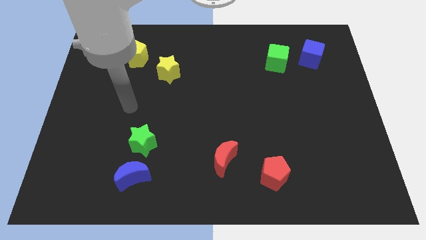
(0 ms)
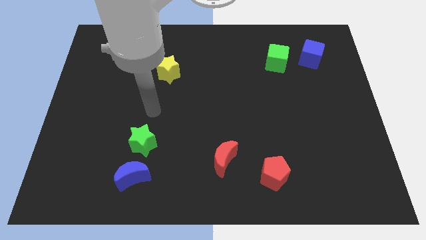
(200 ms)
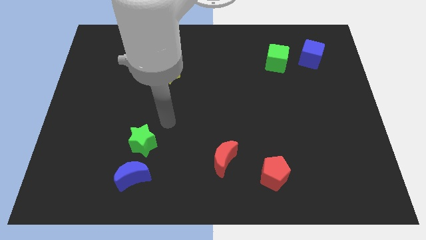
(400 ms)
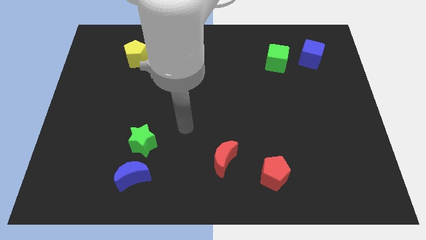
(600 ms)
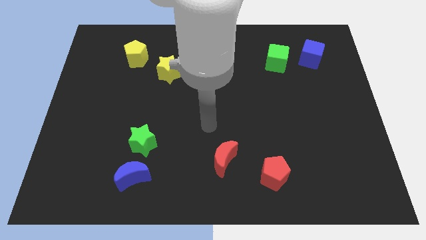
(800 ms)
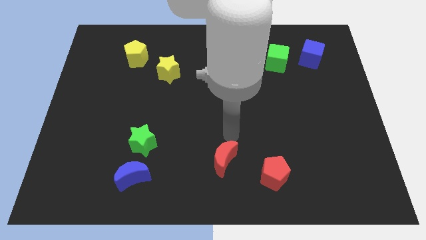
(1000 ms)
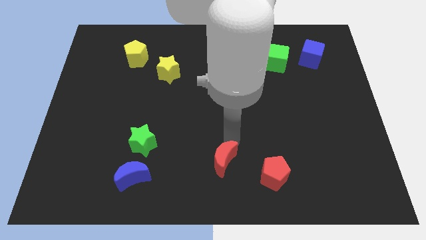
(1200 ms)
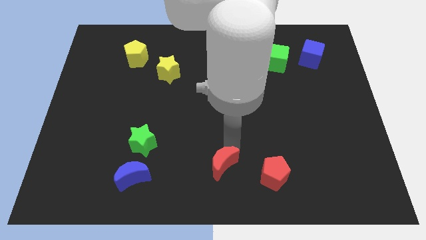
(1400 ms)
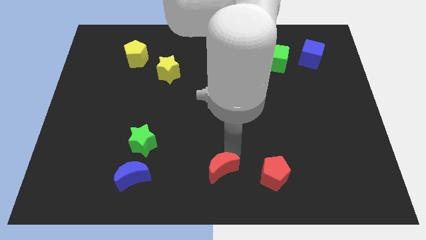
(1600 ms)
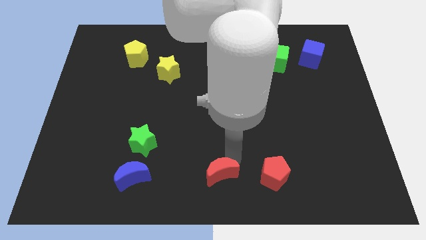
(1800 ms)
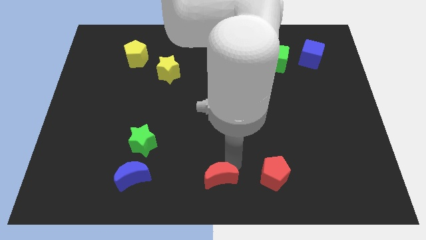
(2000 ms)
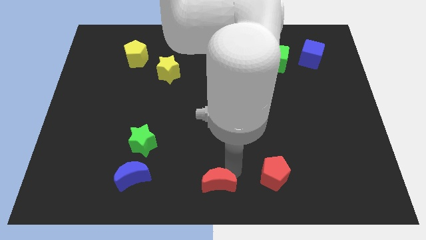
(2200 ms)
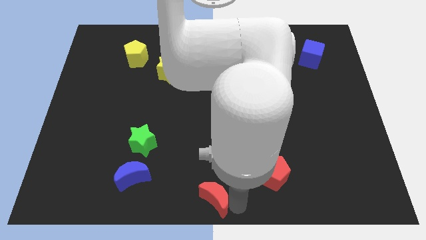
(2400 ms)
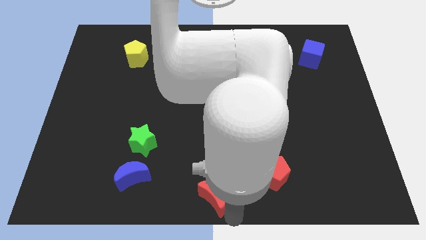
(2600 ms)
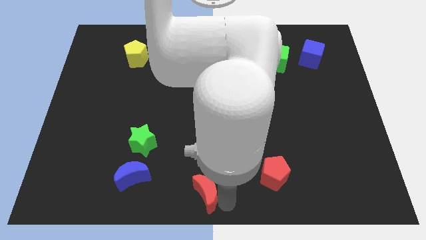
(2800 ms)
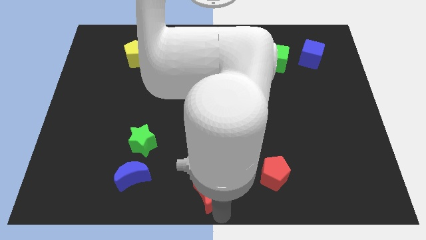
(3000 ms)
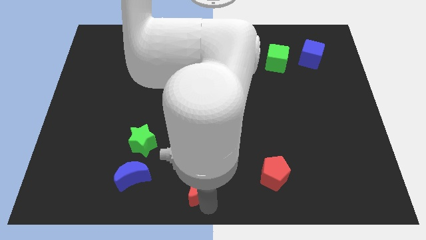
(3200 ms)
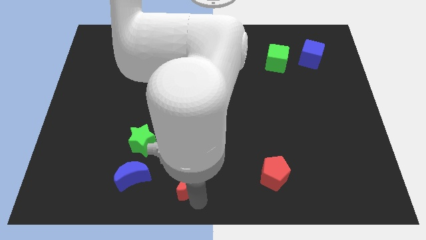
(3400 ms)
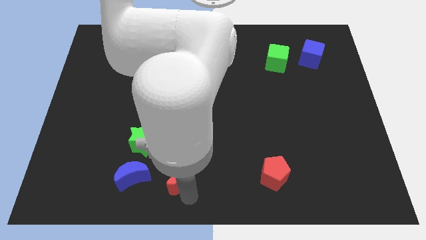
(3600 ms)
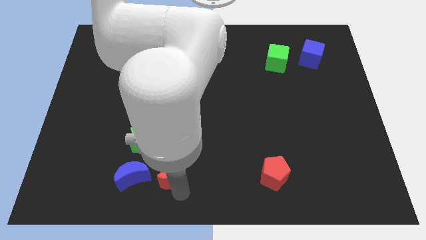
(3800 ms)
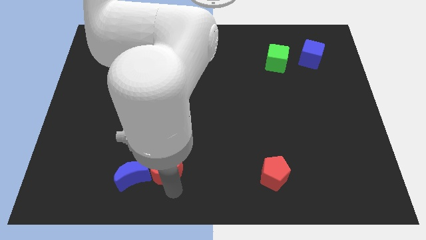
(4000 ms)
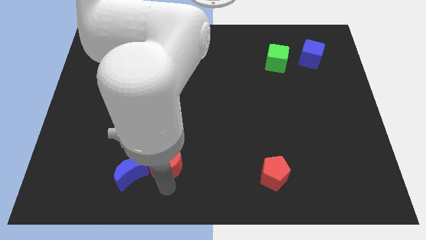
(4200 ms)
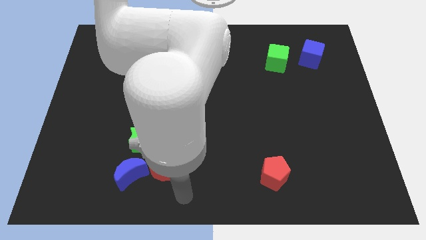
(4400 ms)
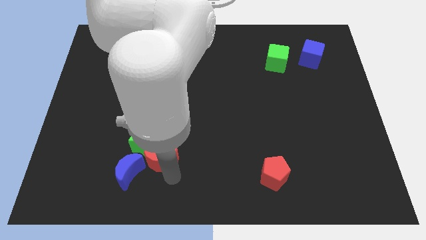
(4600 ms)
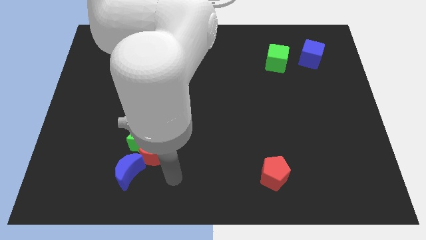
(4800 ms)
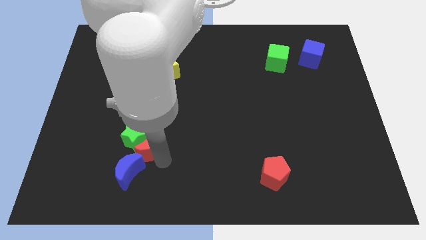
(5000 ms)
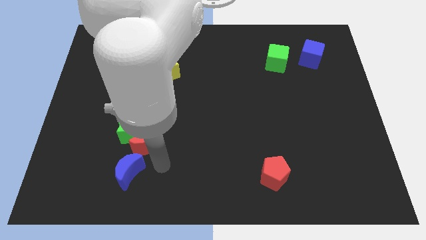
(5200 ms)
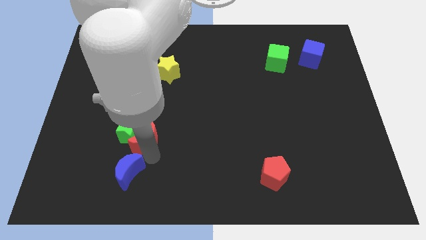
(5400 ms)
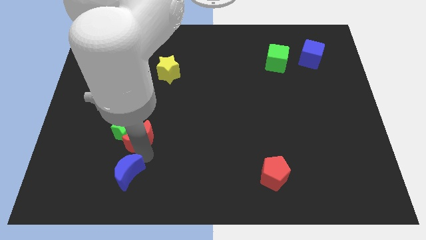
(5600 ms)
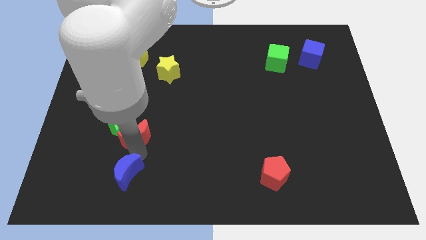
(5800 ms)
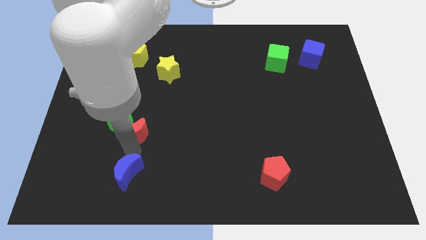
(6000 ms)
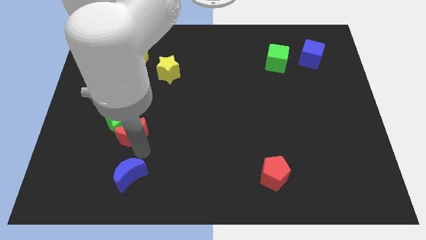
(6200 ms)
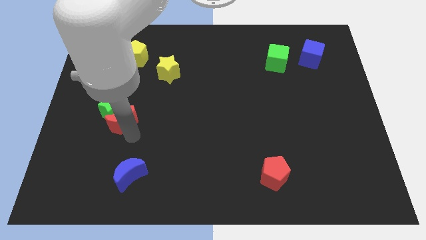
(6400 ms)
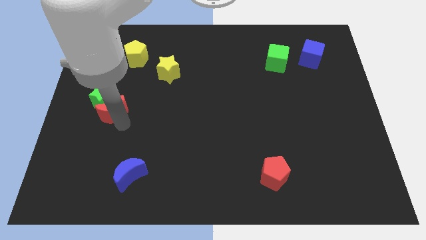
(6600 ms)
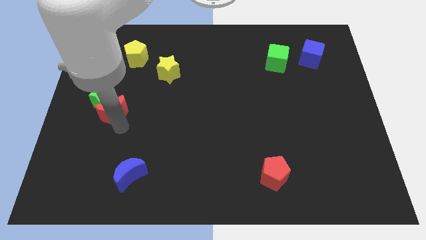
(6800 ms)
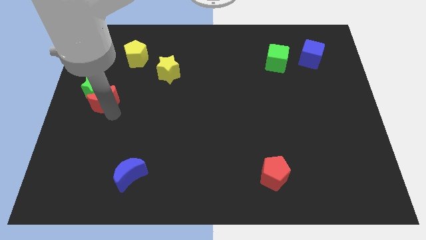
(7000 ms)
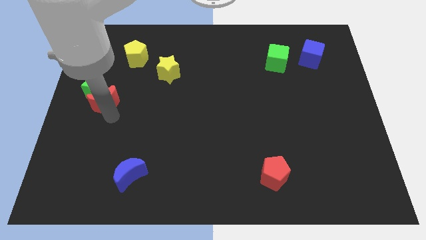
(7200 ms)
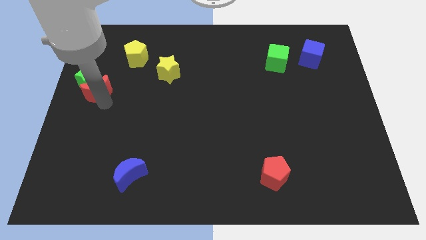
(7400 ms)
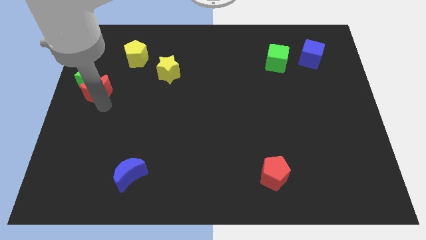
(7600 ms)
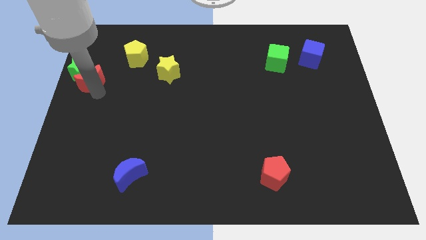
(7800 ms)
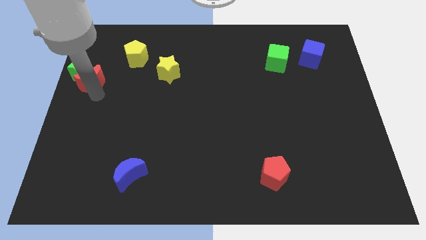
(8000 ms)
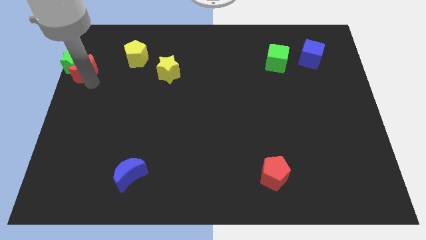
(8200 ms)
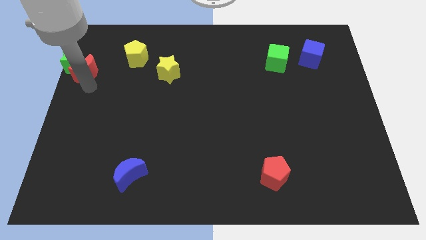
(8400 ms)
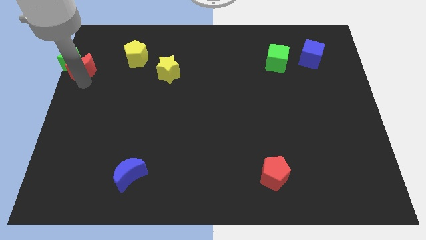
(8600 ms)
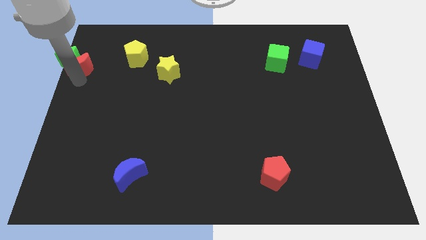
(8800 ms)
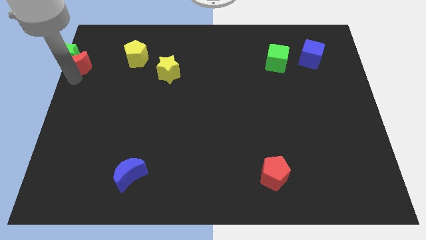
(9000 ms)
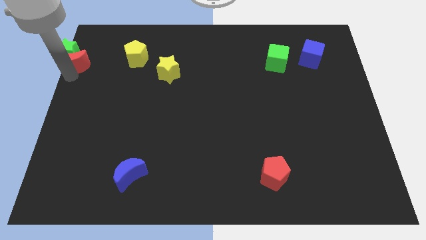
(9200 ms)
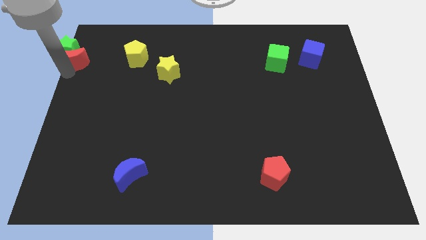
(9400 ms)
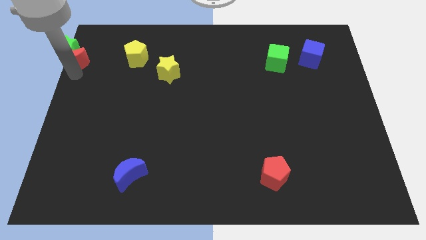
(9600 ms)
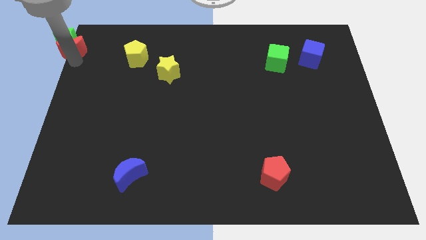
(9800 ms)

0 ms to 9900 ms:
slide the red moon to the top left of the board

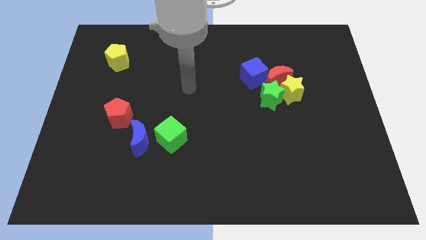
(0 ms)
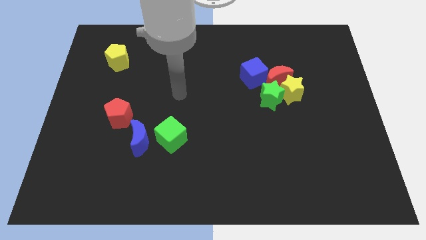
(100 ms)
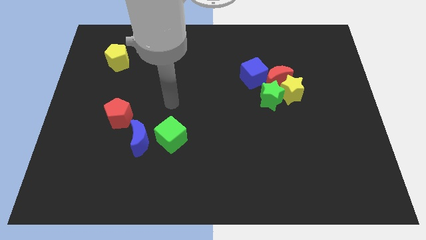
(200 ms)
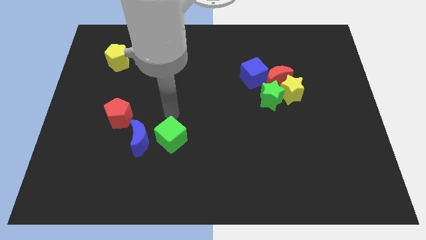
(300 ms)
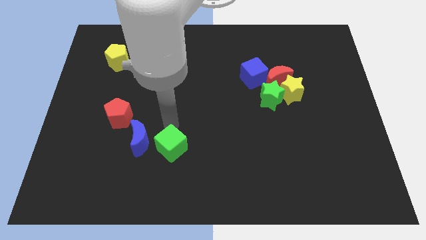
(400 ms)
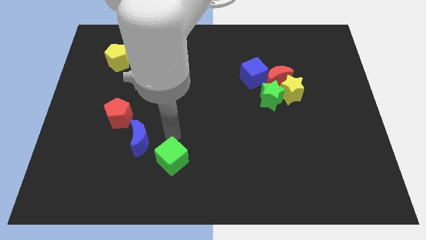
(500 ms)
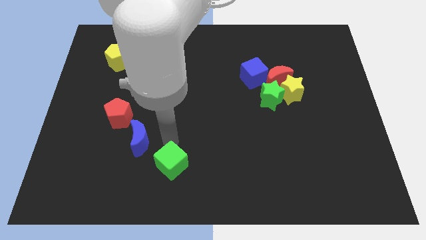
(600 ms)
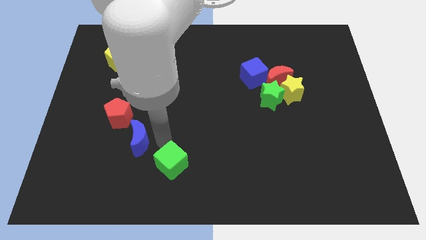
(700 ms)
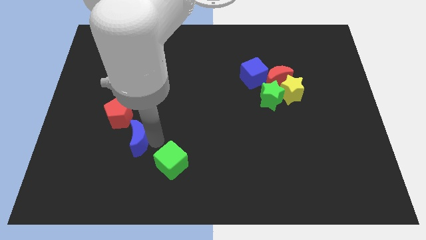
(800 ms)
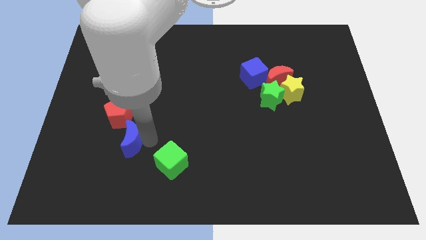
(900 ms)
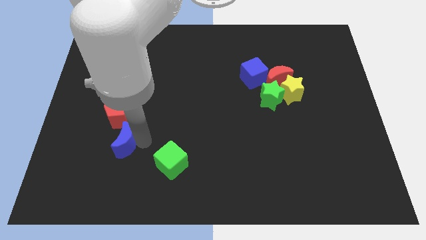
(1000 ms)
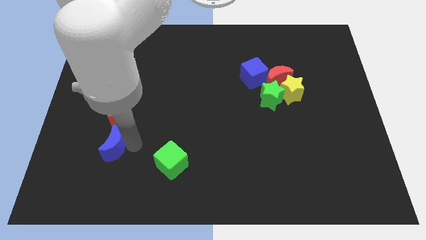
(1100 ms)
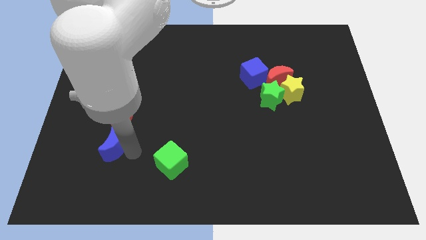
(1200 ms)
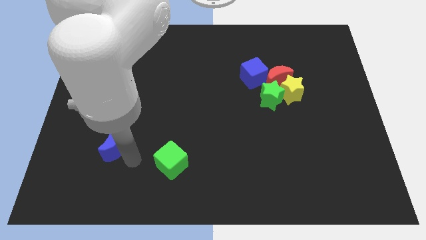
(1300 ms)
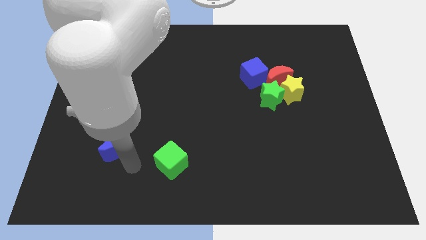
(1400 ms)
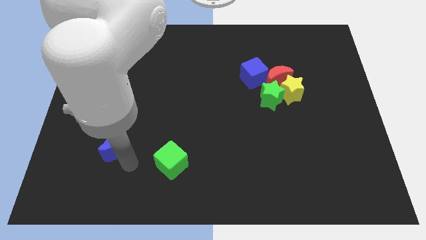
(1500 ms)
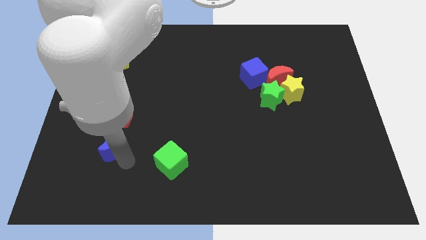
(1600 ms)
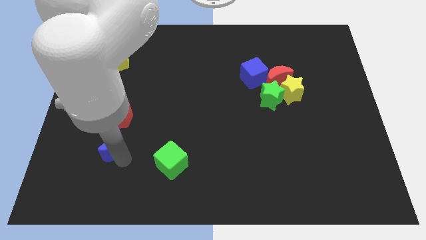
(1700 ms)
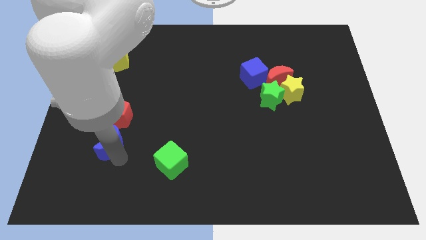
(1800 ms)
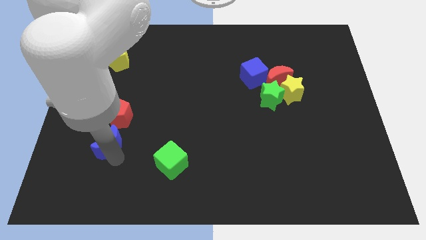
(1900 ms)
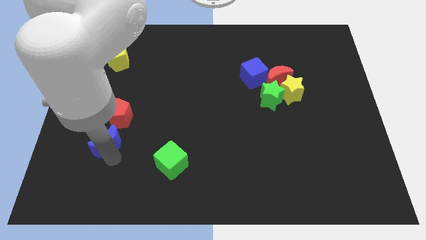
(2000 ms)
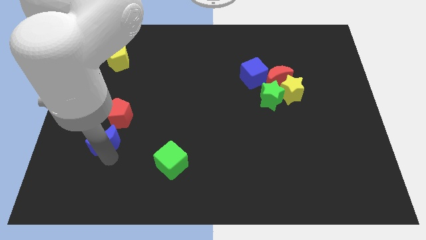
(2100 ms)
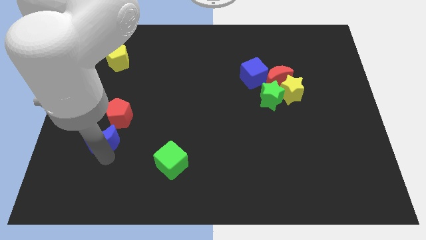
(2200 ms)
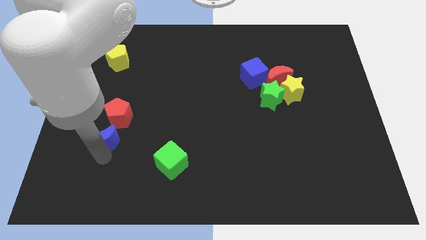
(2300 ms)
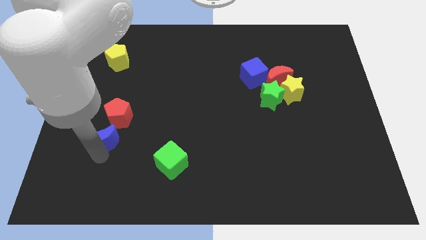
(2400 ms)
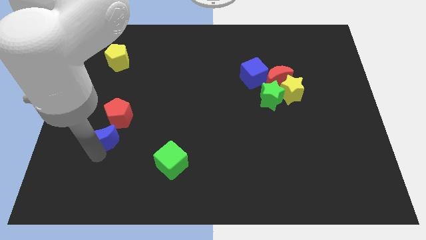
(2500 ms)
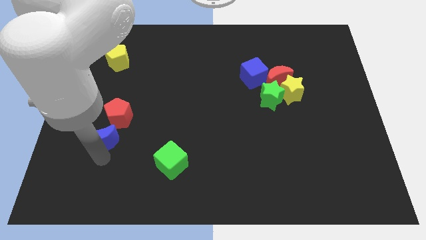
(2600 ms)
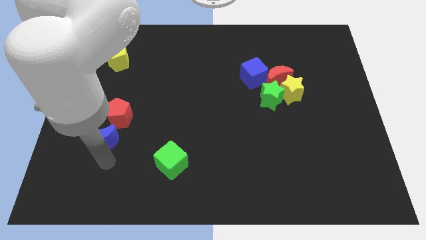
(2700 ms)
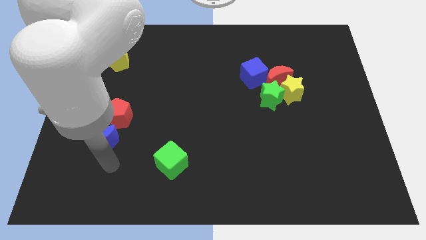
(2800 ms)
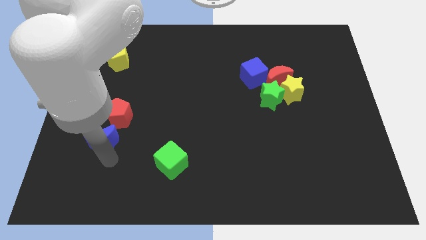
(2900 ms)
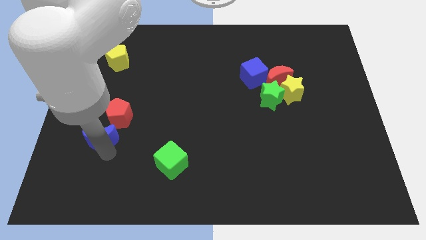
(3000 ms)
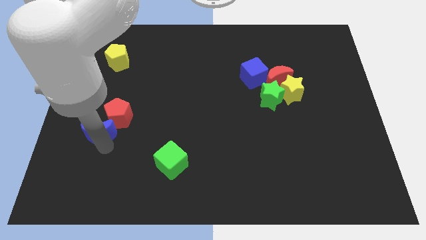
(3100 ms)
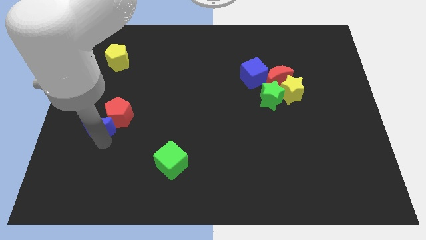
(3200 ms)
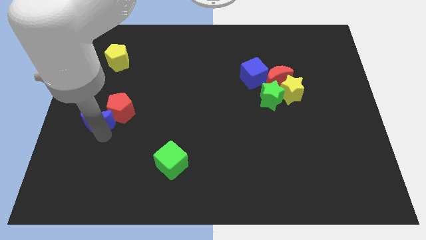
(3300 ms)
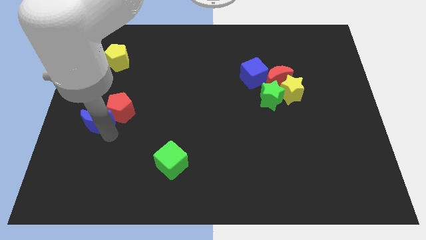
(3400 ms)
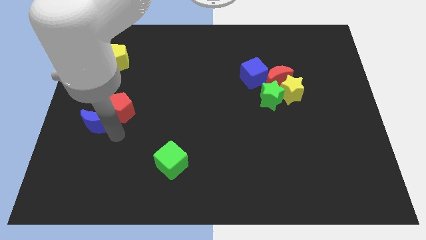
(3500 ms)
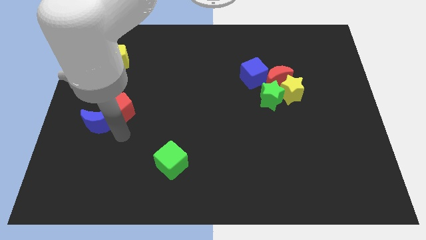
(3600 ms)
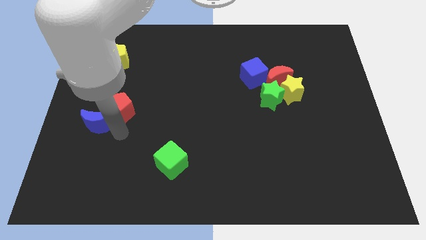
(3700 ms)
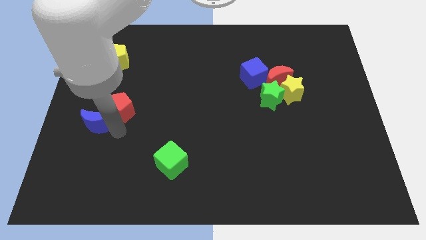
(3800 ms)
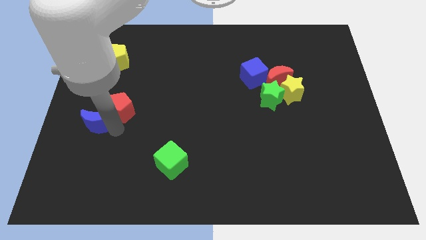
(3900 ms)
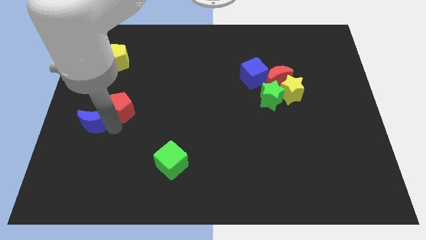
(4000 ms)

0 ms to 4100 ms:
move the blue moon to the left side
